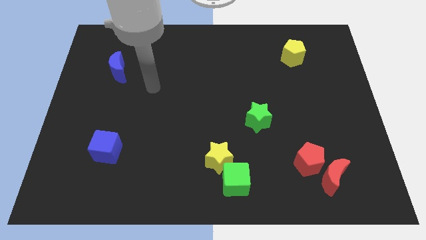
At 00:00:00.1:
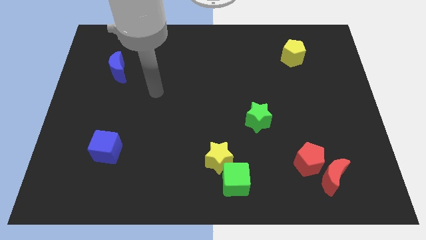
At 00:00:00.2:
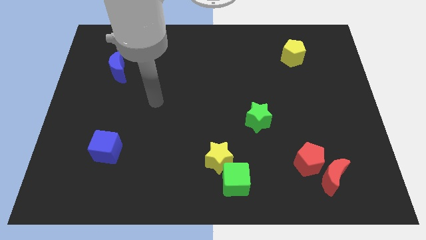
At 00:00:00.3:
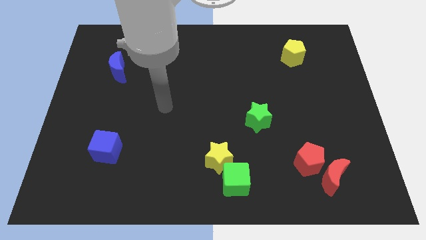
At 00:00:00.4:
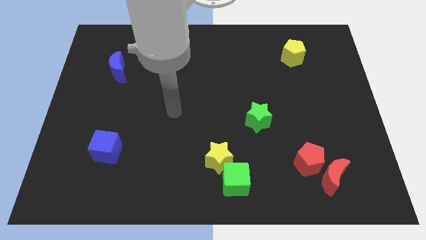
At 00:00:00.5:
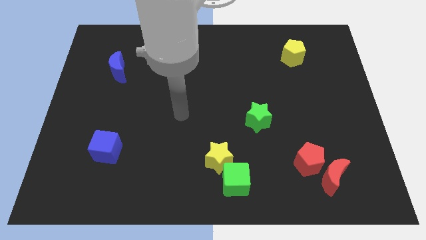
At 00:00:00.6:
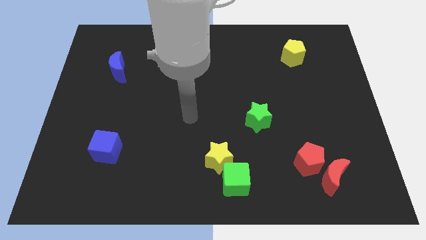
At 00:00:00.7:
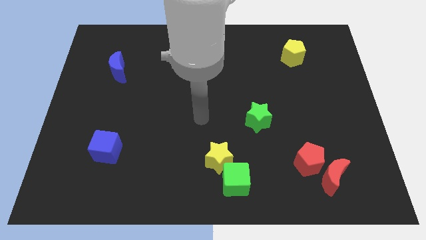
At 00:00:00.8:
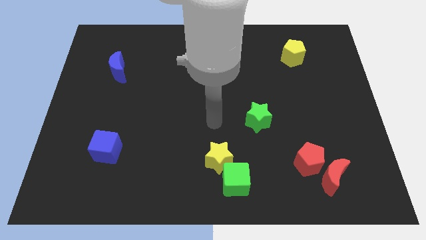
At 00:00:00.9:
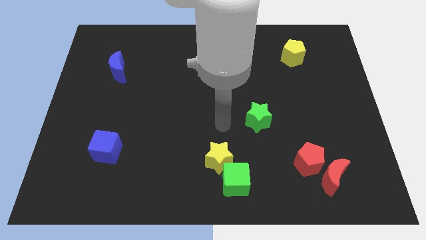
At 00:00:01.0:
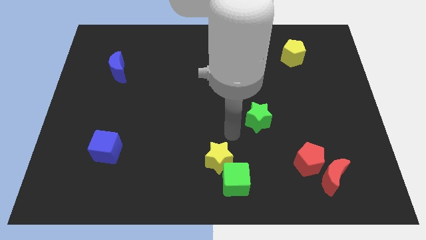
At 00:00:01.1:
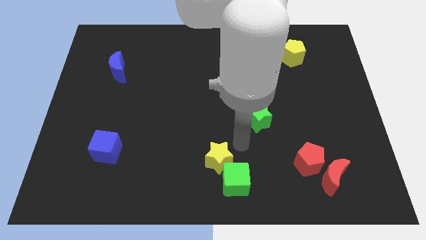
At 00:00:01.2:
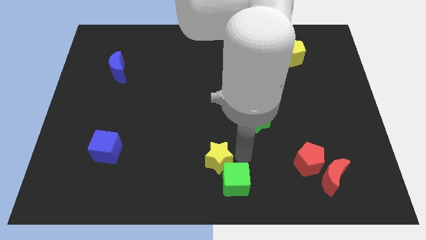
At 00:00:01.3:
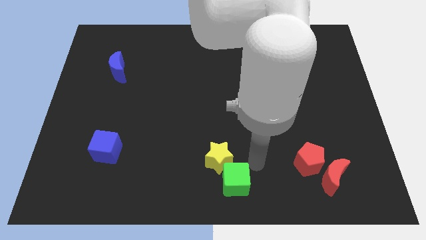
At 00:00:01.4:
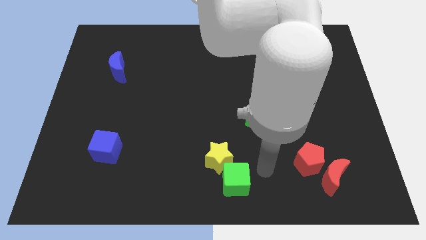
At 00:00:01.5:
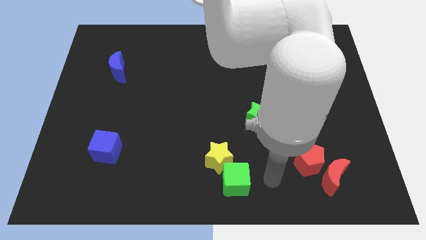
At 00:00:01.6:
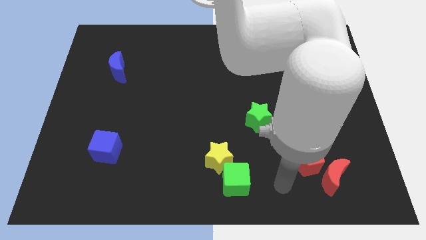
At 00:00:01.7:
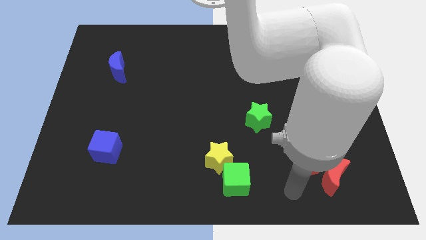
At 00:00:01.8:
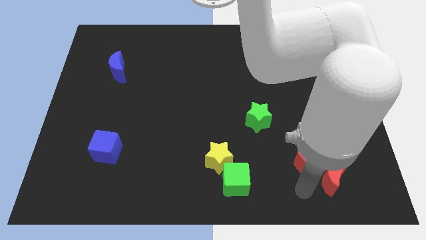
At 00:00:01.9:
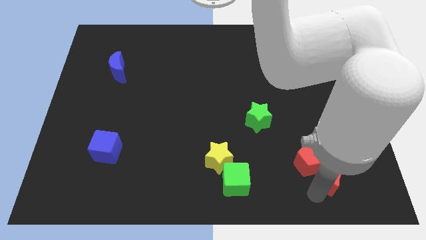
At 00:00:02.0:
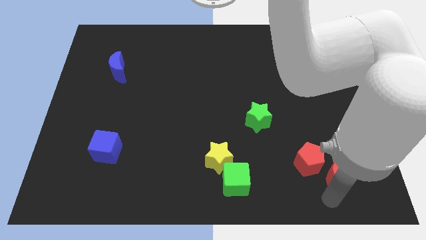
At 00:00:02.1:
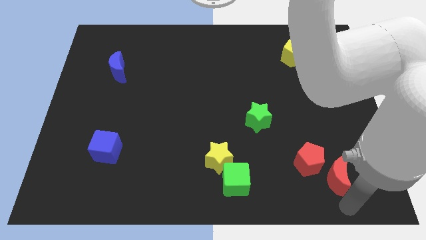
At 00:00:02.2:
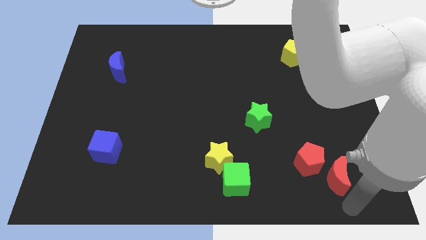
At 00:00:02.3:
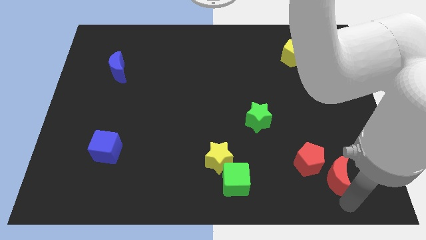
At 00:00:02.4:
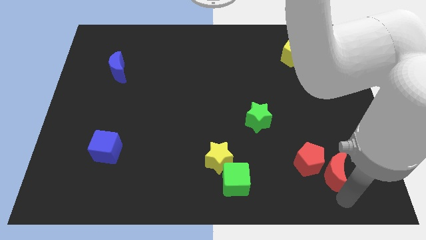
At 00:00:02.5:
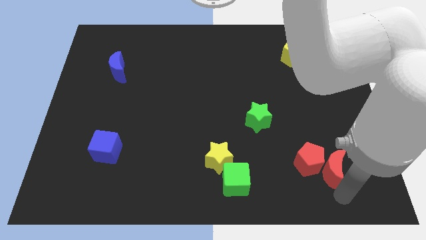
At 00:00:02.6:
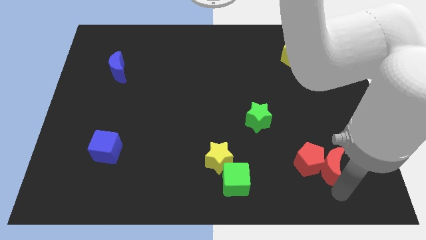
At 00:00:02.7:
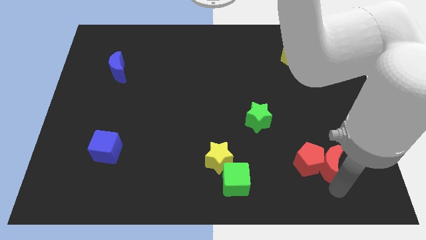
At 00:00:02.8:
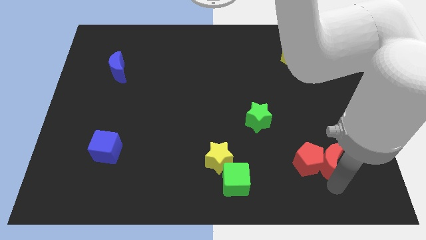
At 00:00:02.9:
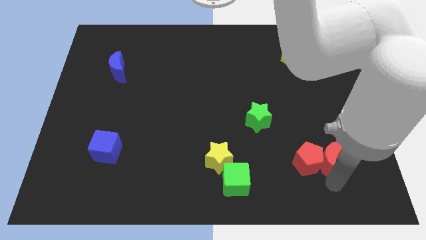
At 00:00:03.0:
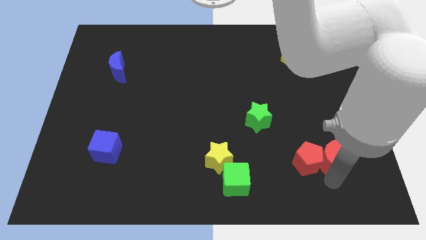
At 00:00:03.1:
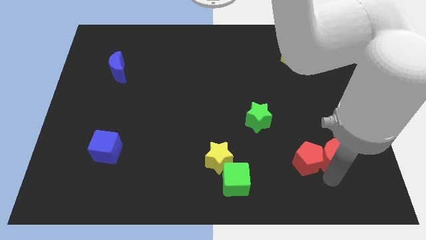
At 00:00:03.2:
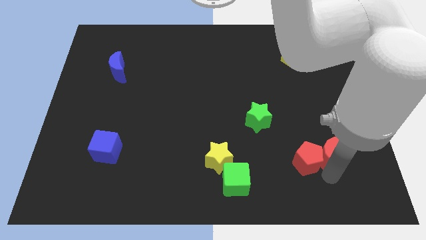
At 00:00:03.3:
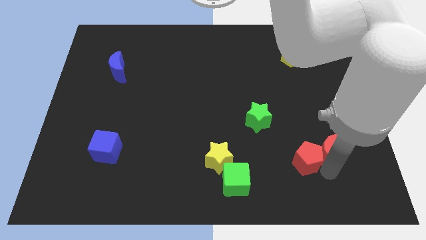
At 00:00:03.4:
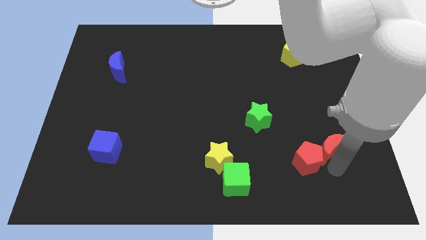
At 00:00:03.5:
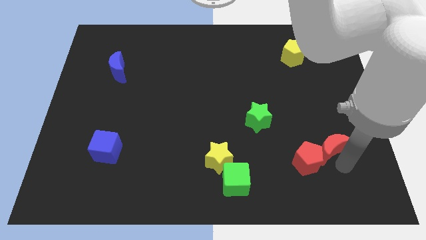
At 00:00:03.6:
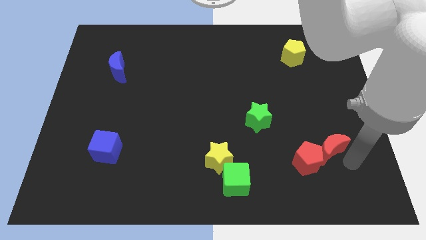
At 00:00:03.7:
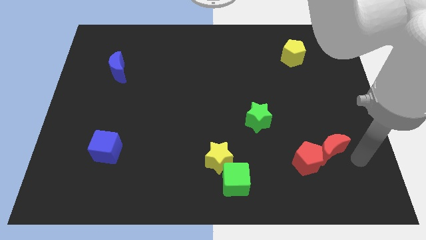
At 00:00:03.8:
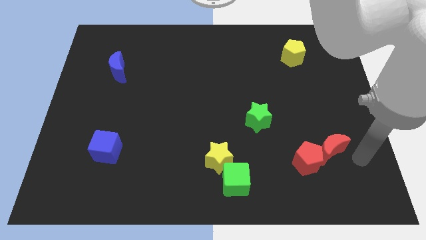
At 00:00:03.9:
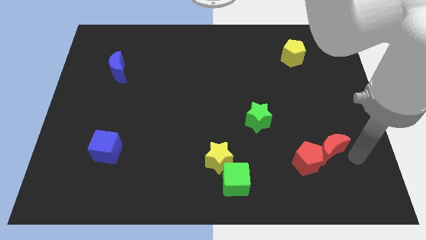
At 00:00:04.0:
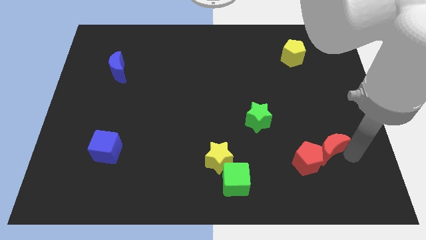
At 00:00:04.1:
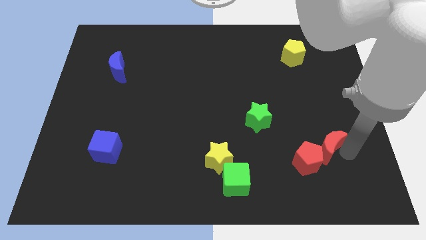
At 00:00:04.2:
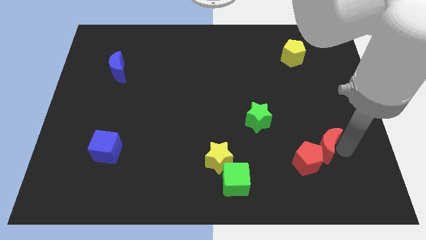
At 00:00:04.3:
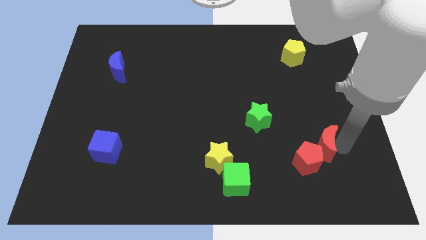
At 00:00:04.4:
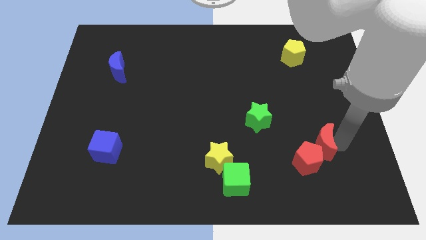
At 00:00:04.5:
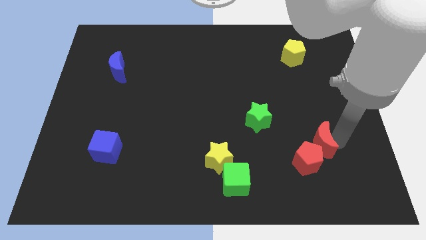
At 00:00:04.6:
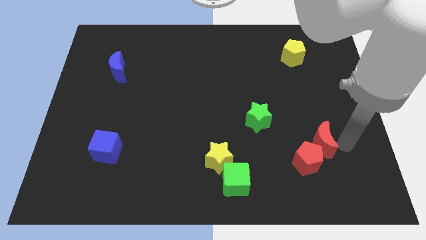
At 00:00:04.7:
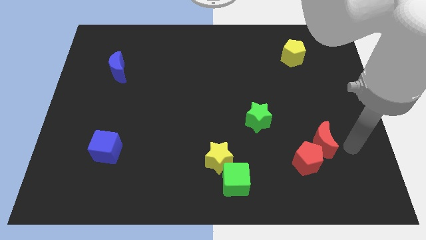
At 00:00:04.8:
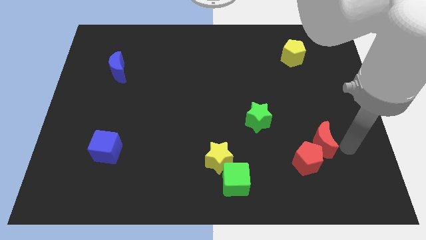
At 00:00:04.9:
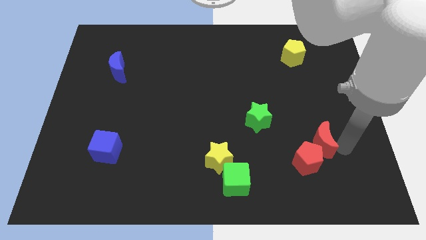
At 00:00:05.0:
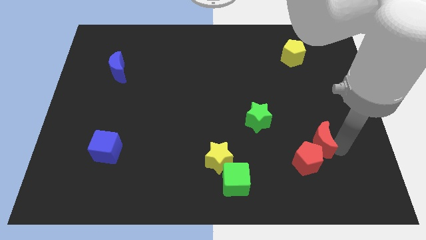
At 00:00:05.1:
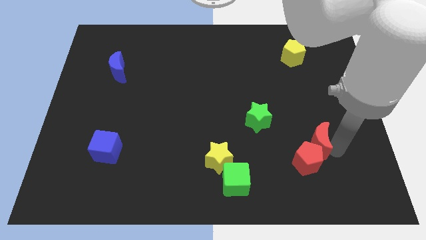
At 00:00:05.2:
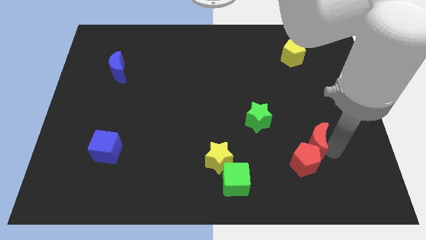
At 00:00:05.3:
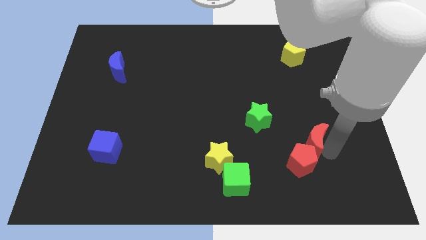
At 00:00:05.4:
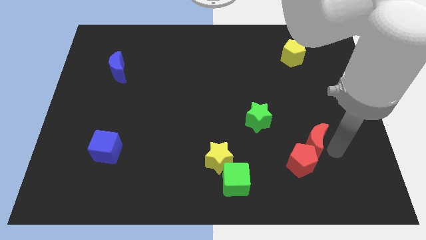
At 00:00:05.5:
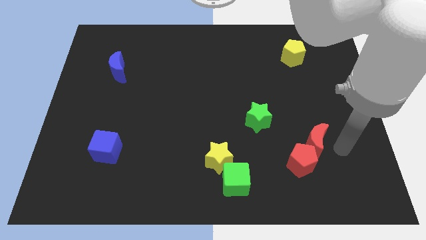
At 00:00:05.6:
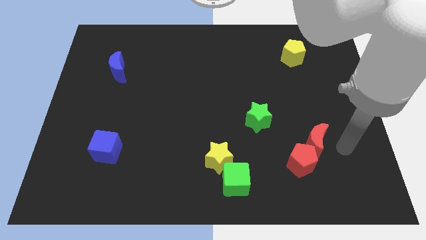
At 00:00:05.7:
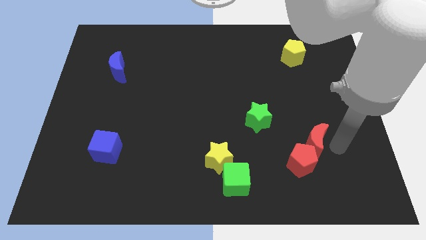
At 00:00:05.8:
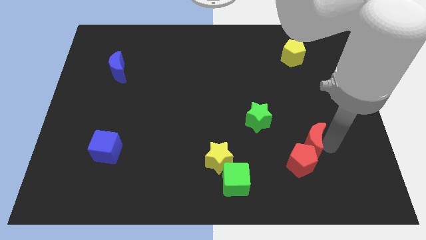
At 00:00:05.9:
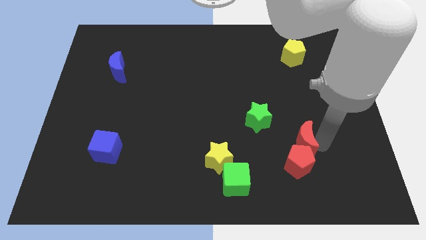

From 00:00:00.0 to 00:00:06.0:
push the red moon diagonally down and to the right of the green star
